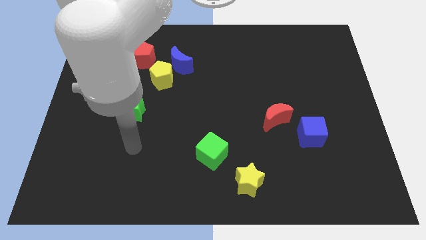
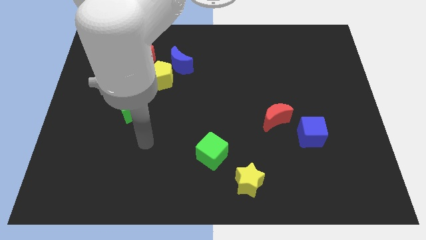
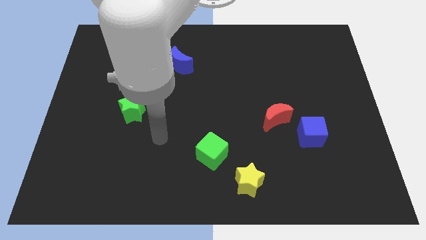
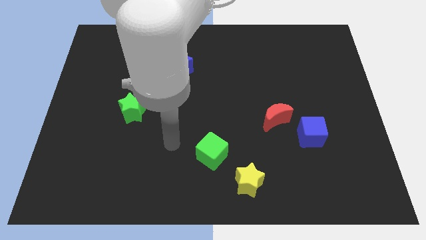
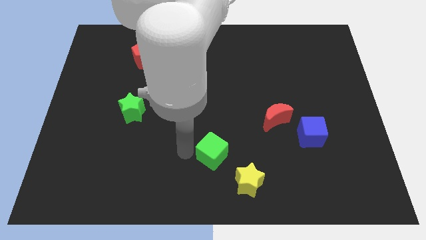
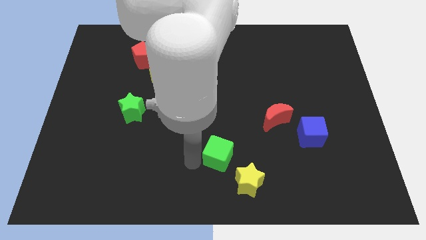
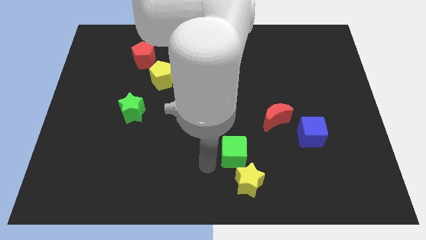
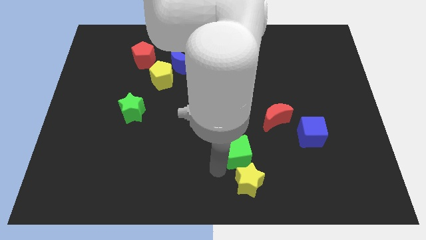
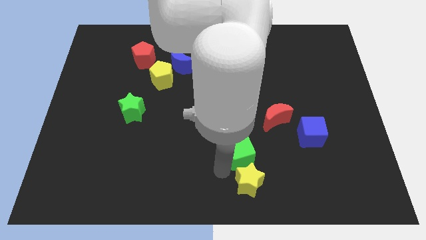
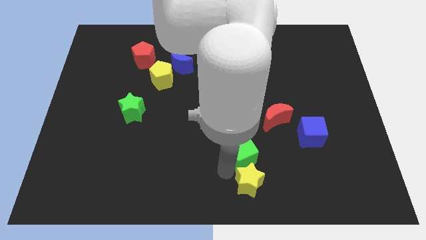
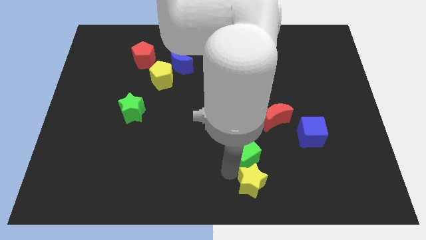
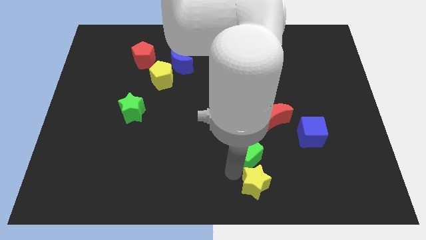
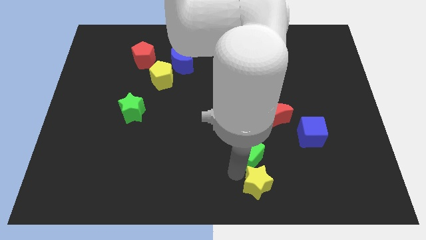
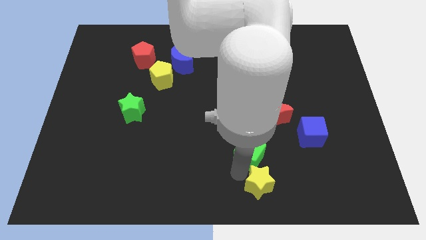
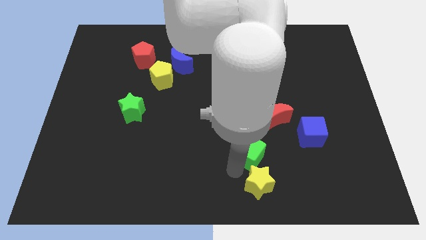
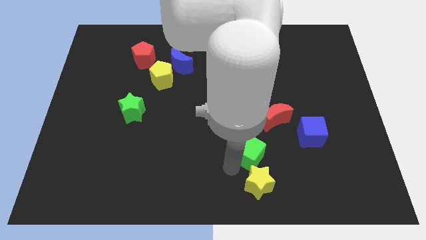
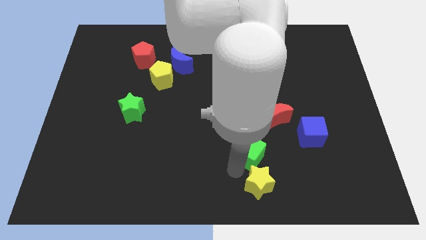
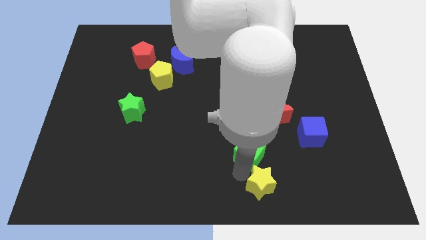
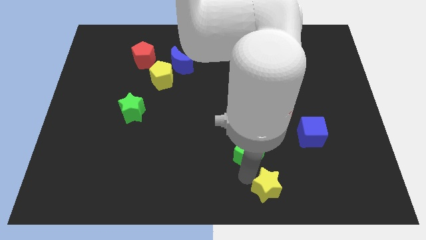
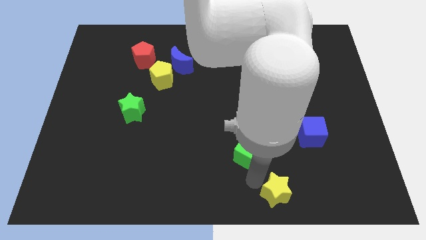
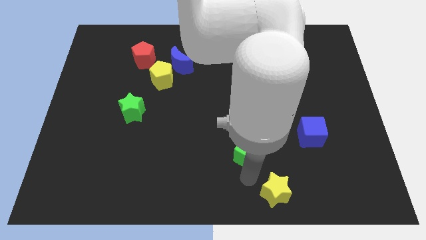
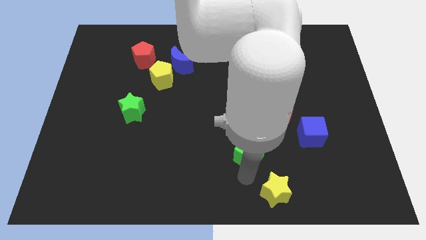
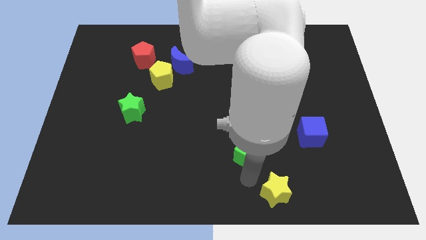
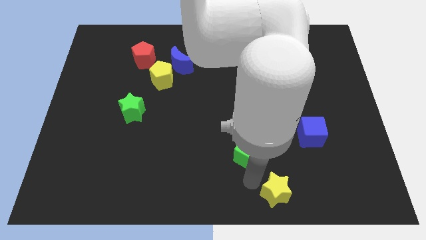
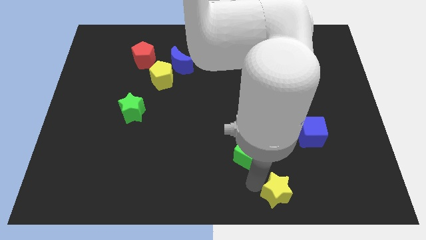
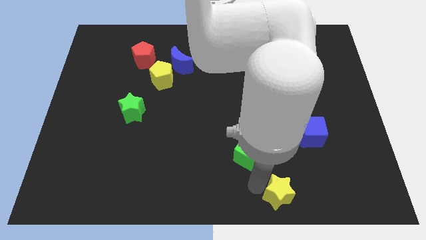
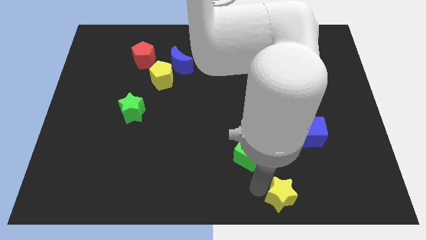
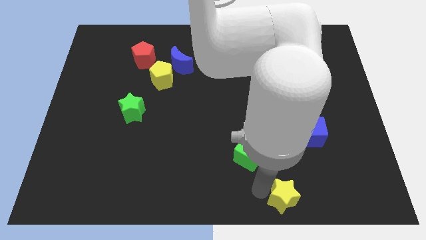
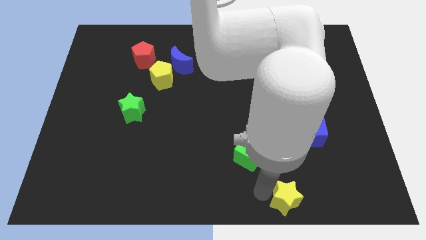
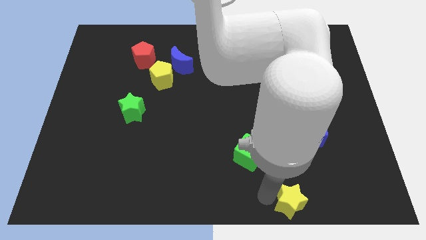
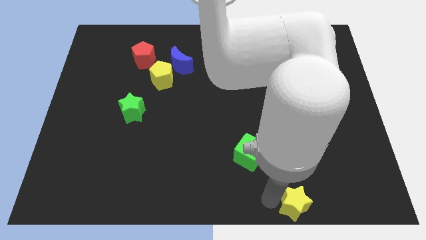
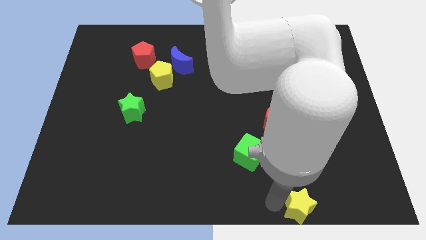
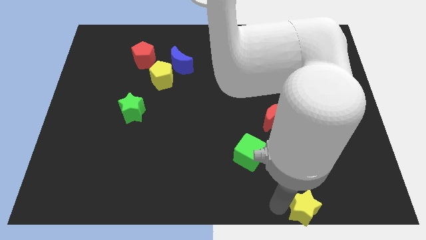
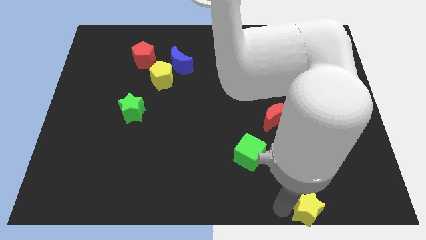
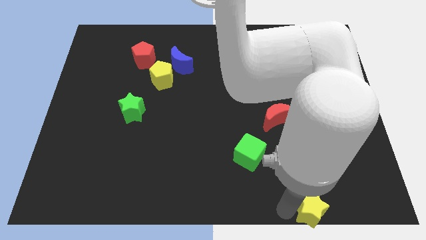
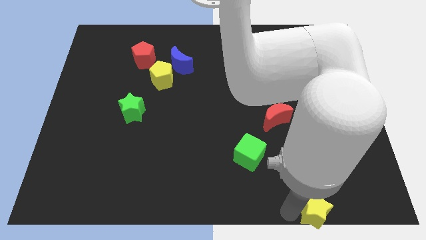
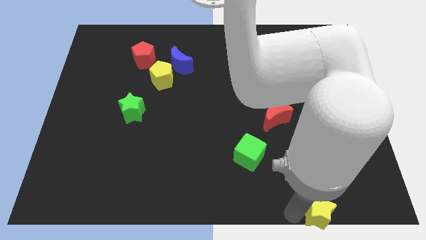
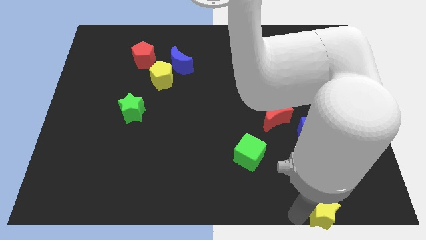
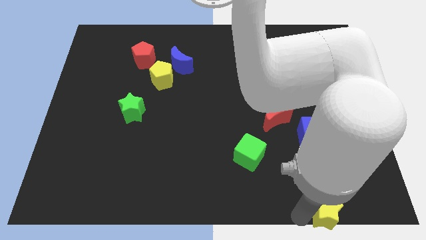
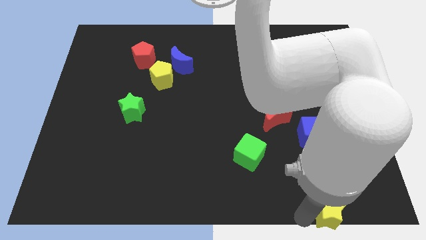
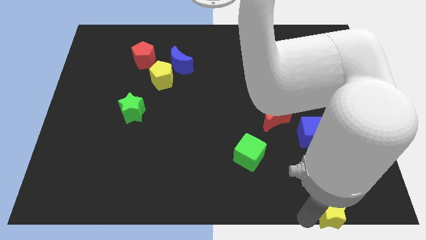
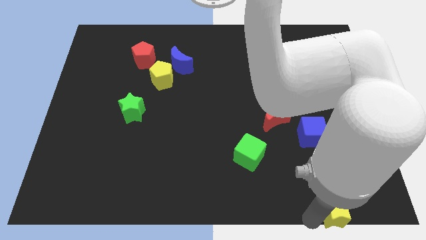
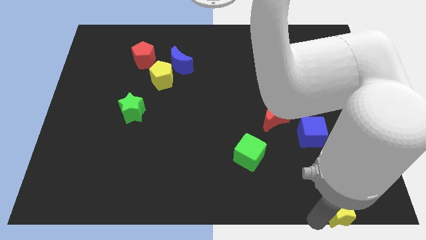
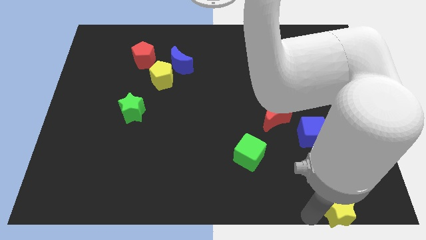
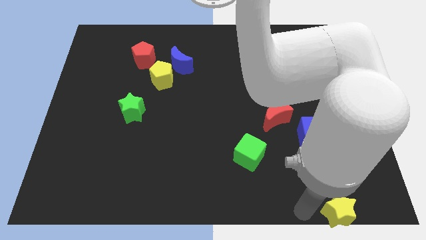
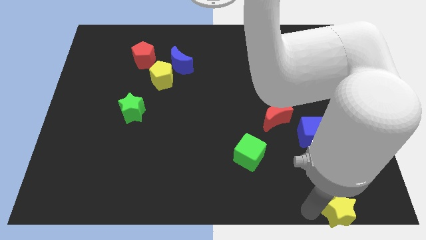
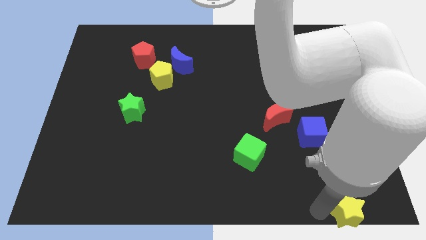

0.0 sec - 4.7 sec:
put the yellow star to the bottom right

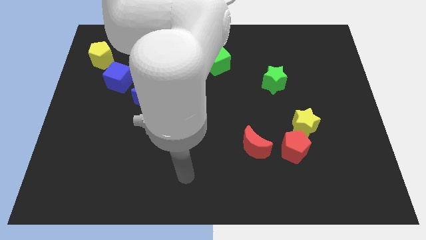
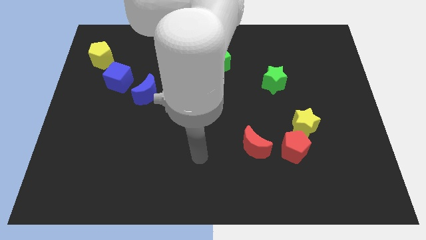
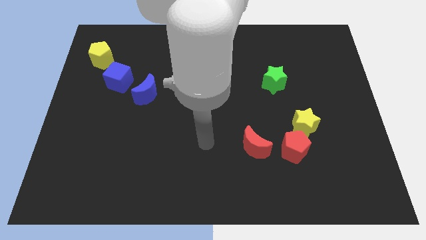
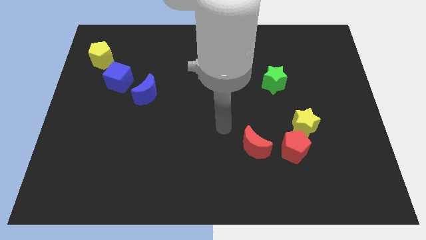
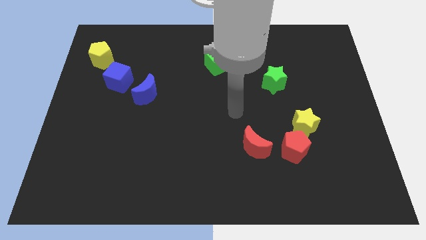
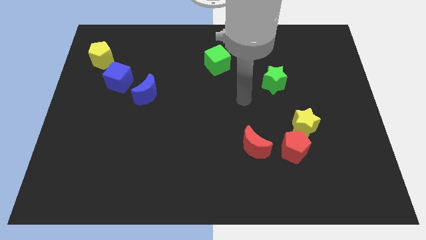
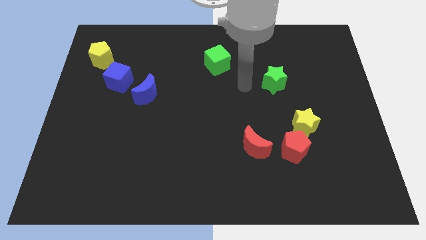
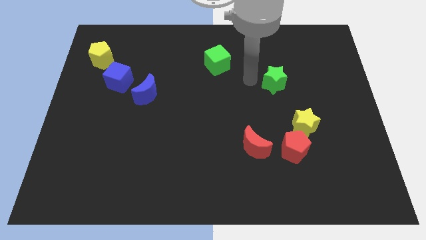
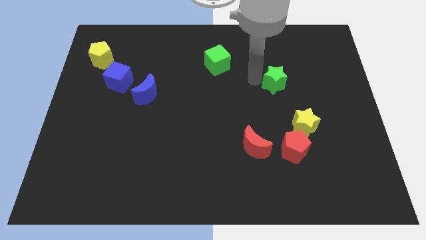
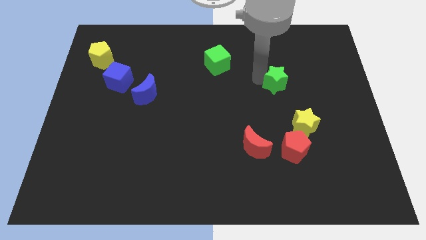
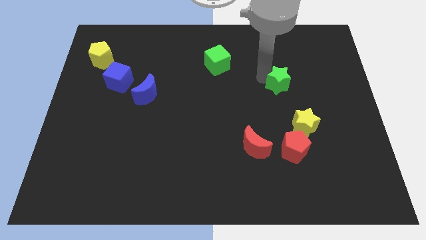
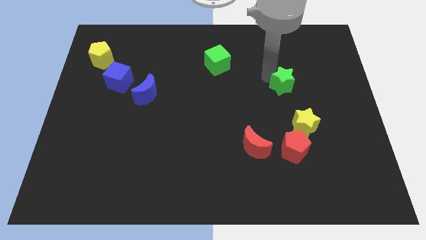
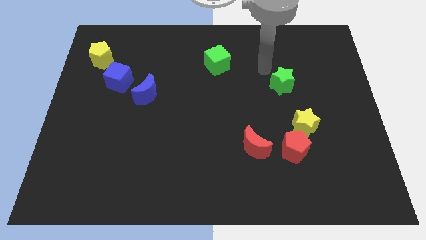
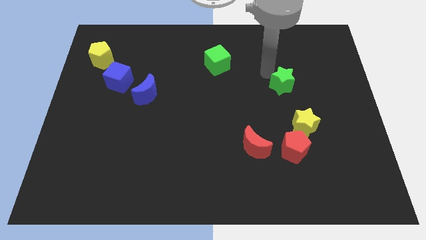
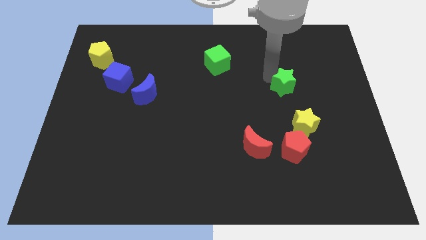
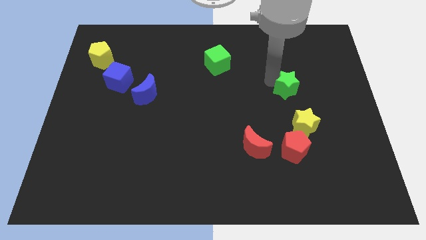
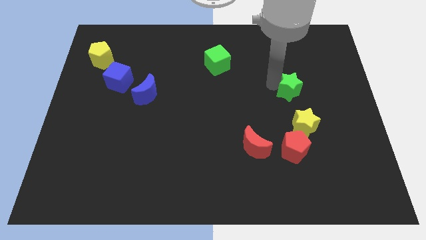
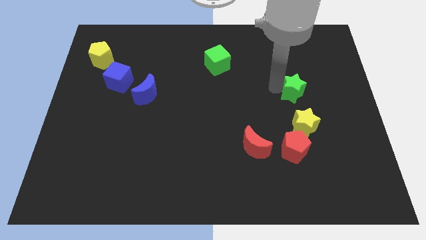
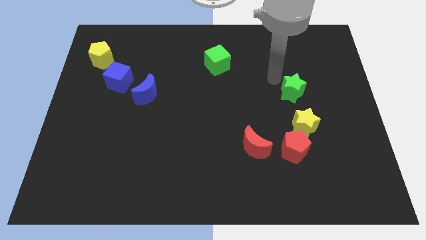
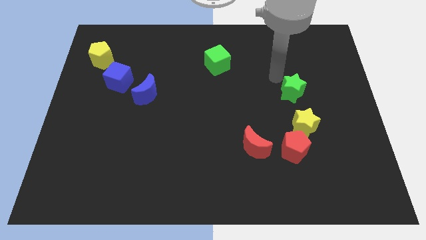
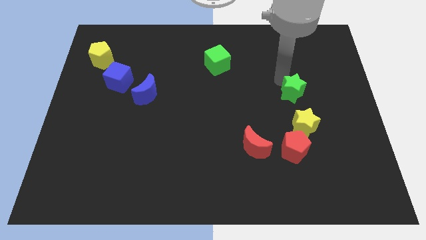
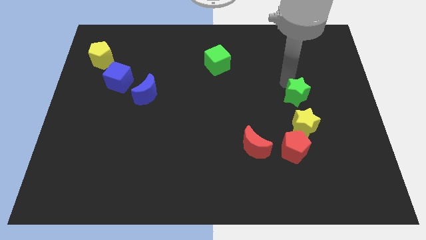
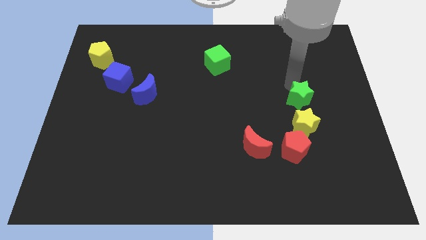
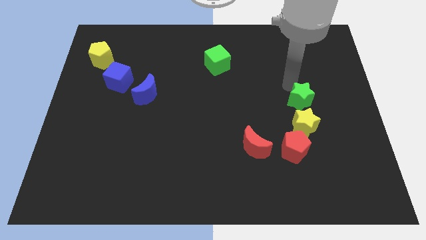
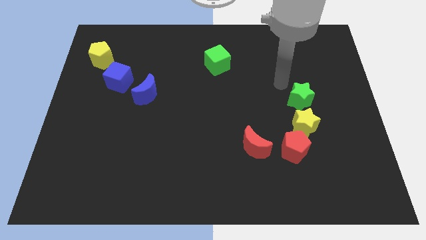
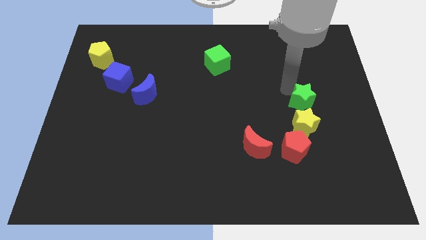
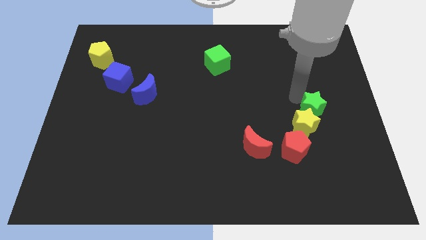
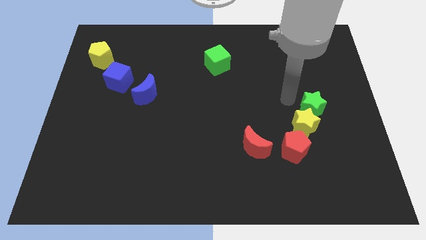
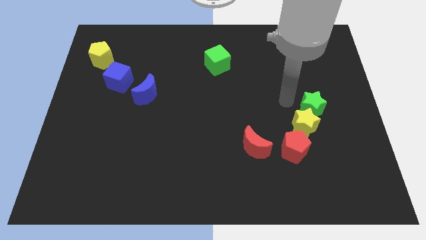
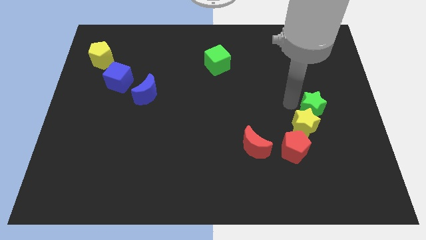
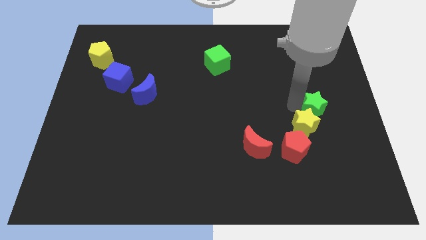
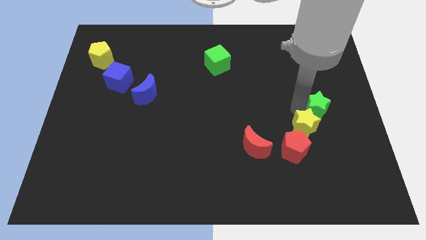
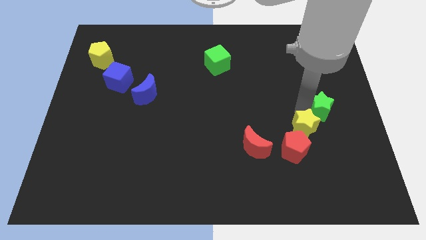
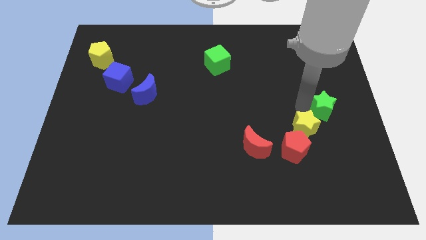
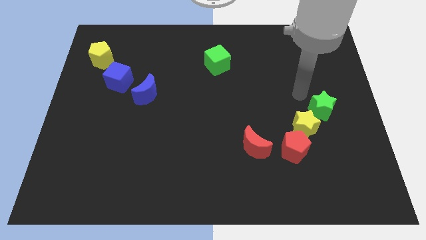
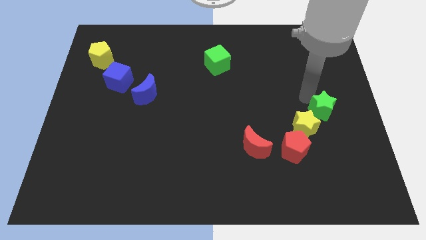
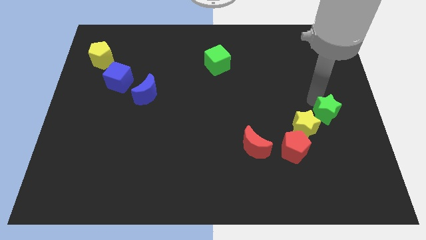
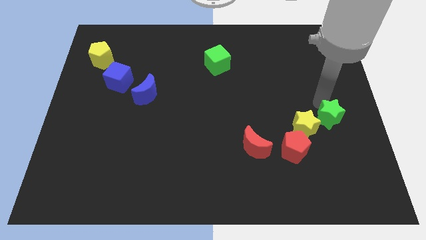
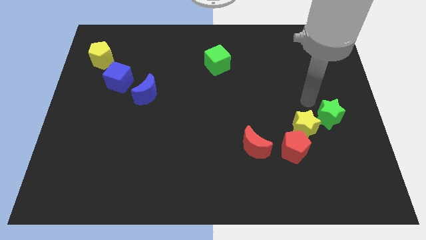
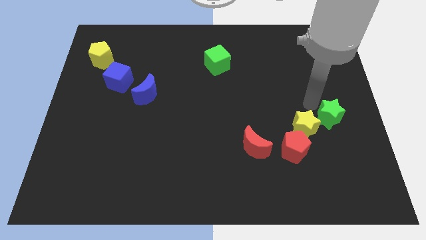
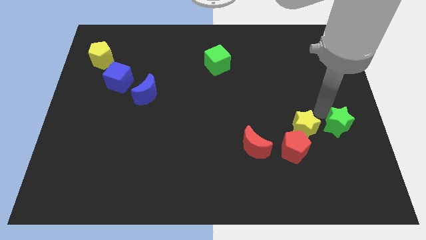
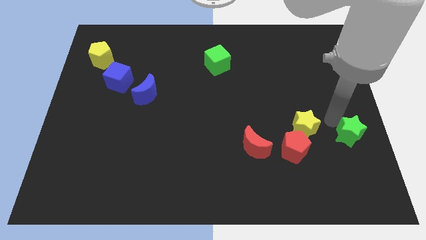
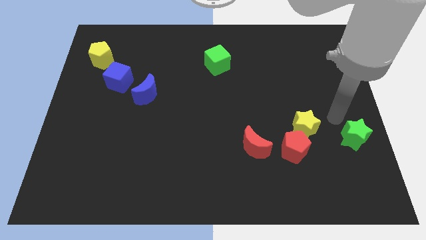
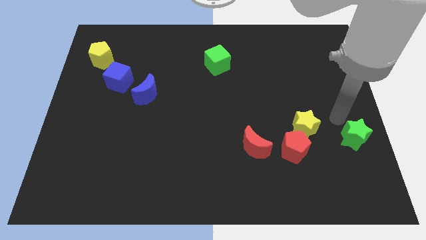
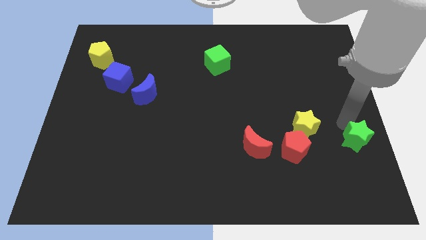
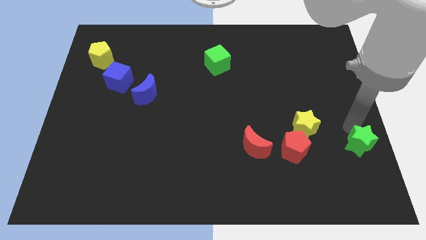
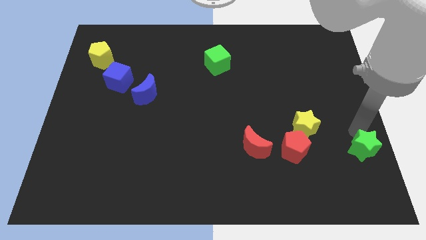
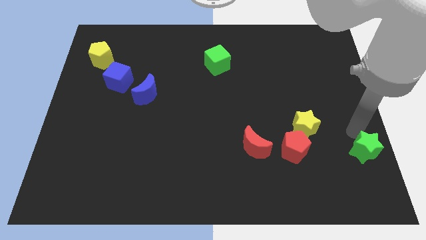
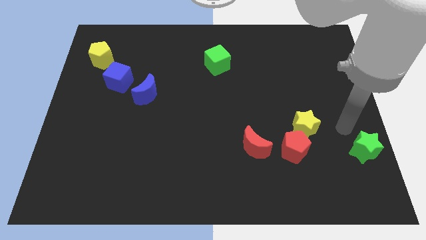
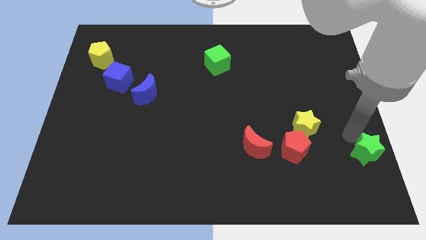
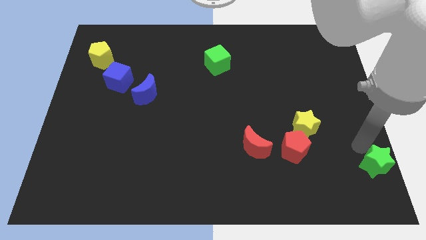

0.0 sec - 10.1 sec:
put the green star to the bottom right corner
